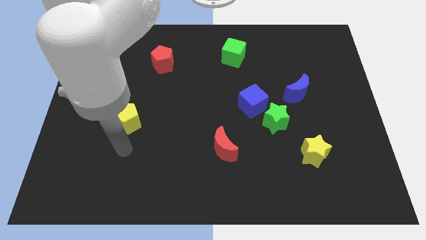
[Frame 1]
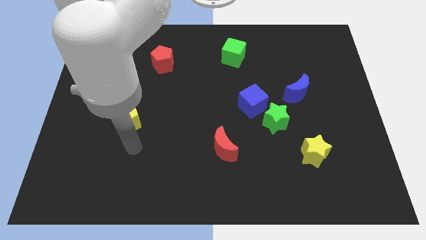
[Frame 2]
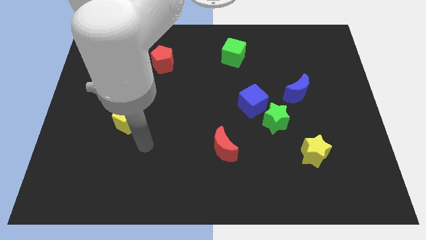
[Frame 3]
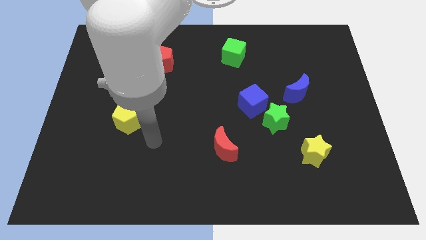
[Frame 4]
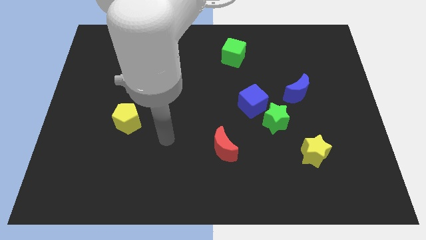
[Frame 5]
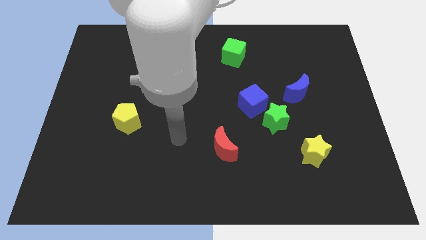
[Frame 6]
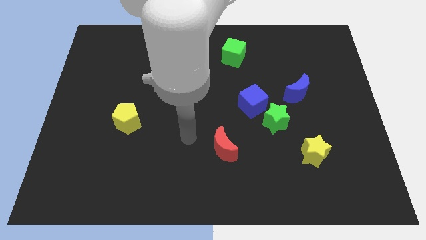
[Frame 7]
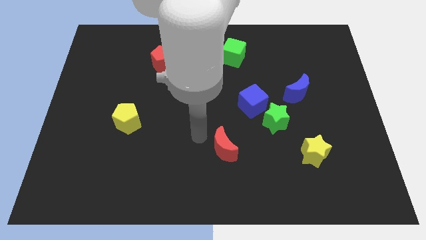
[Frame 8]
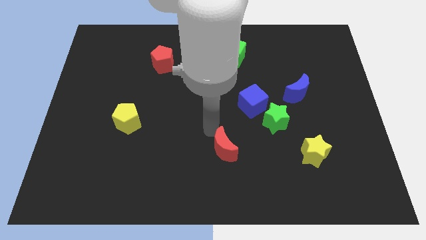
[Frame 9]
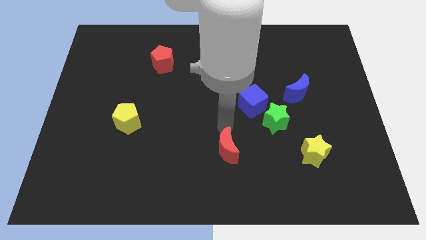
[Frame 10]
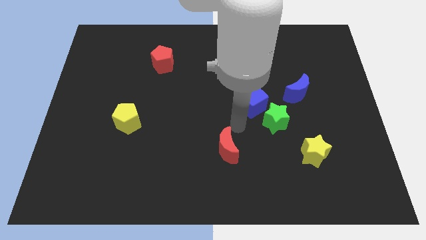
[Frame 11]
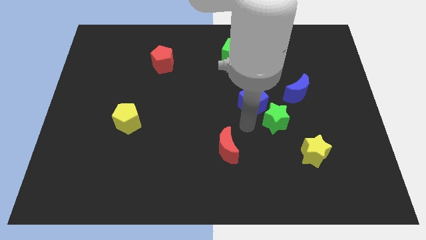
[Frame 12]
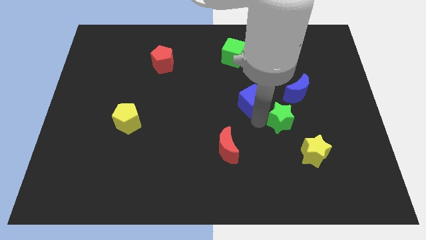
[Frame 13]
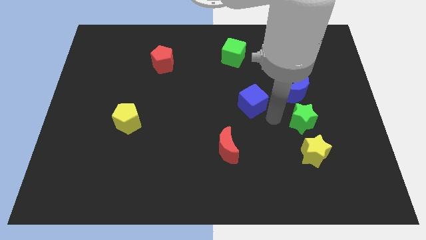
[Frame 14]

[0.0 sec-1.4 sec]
separate the blue cube from the green star

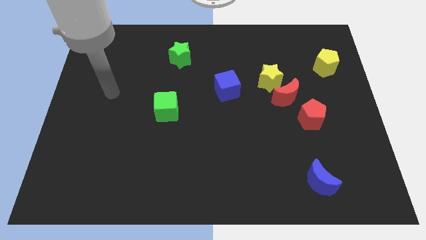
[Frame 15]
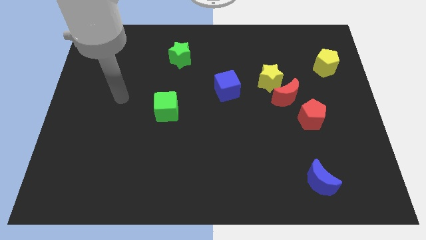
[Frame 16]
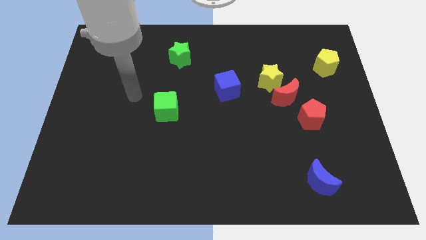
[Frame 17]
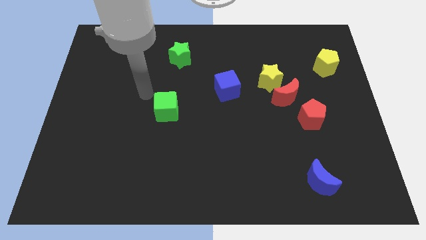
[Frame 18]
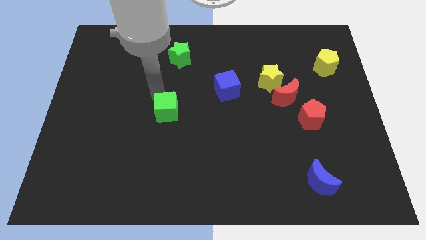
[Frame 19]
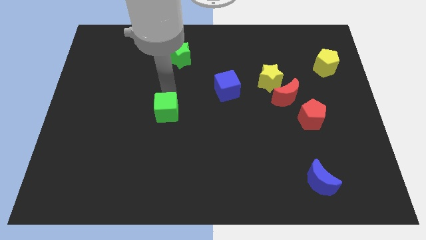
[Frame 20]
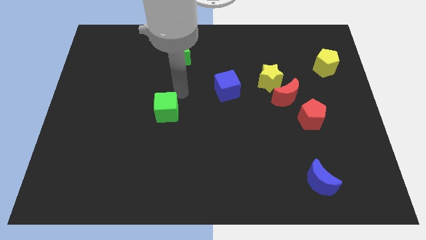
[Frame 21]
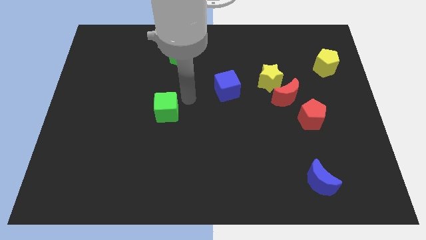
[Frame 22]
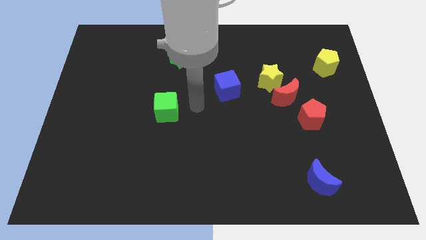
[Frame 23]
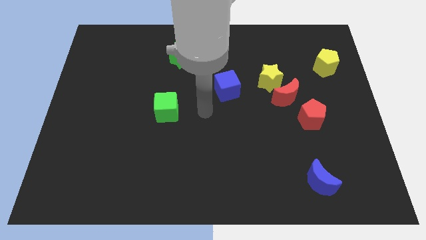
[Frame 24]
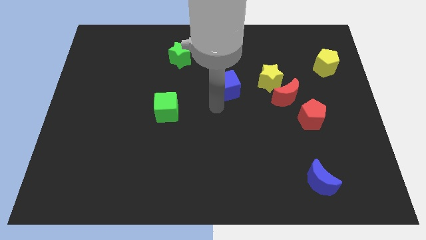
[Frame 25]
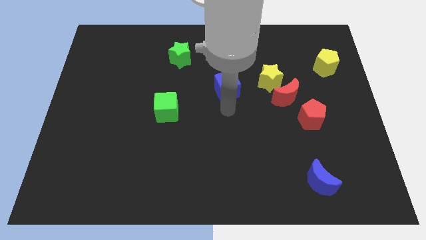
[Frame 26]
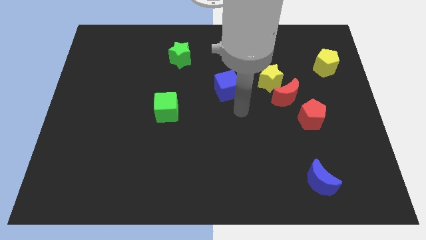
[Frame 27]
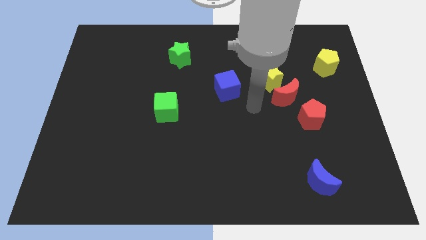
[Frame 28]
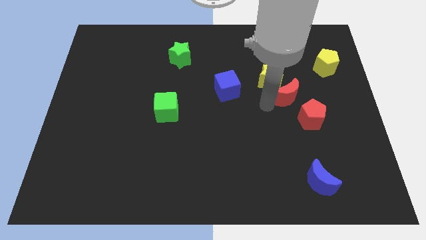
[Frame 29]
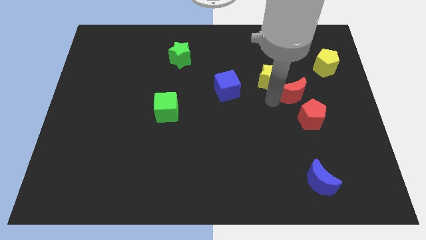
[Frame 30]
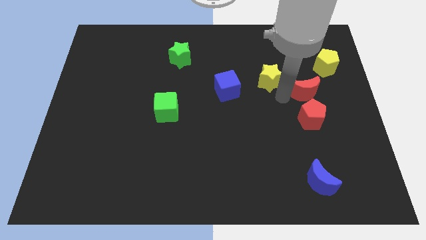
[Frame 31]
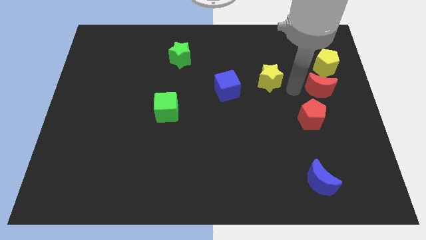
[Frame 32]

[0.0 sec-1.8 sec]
move the yellow star away from the red moon

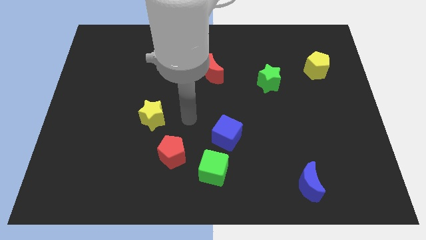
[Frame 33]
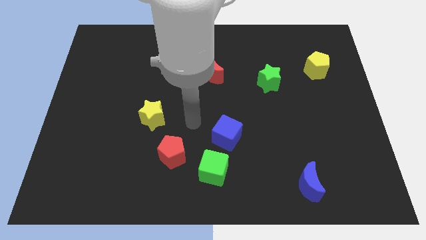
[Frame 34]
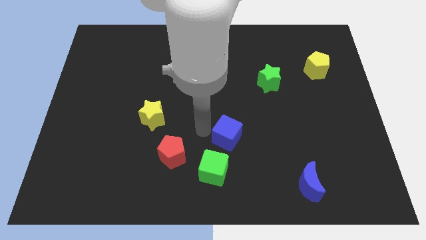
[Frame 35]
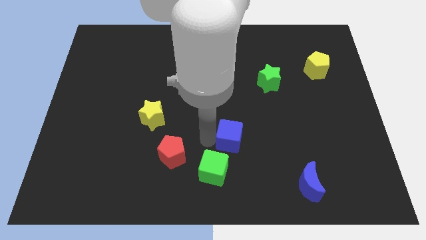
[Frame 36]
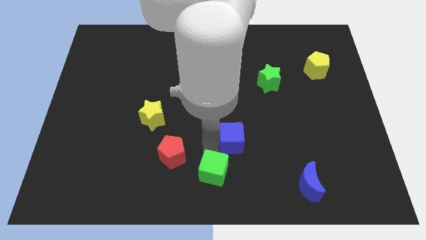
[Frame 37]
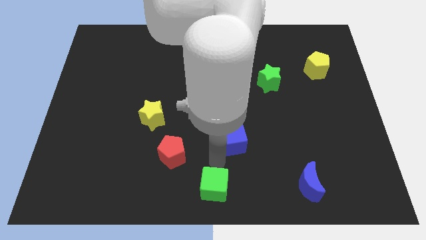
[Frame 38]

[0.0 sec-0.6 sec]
pull the blue cube apart from the green cube

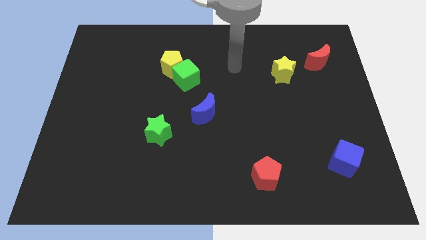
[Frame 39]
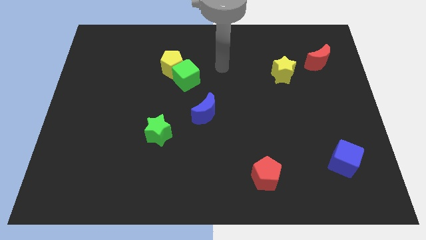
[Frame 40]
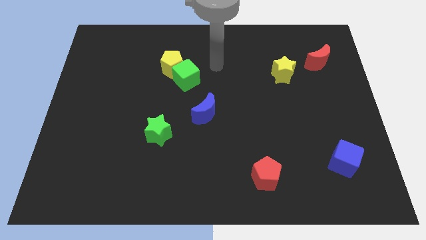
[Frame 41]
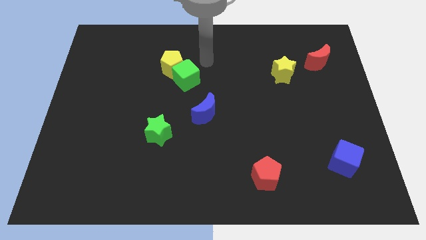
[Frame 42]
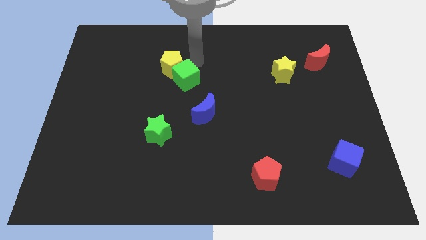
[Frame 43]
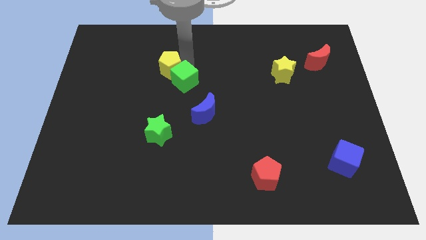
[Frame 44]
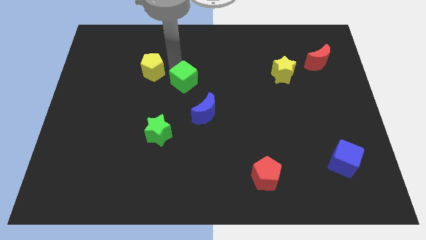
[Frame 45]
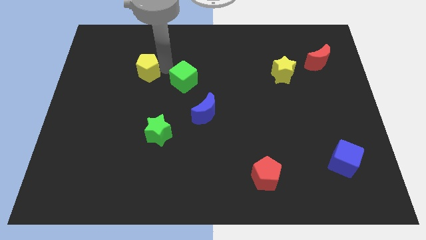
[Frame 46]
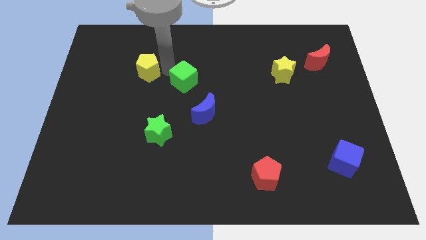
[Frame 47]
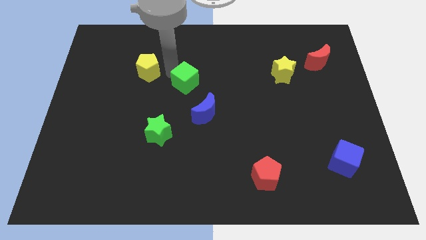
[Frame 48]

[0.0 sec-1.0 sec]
separate the green cube from the yellow pentagon

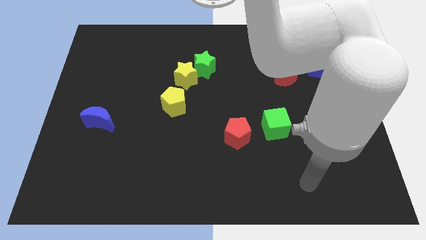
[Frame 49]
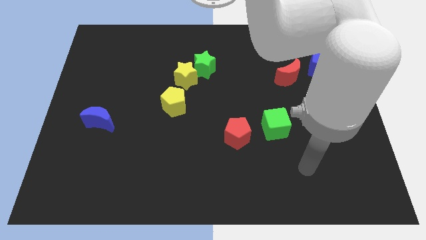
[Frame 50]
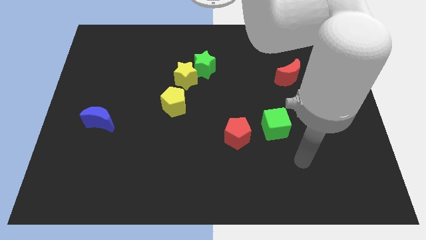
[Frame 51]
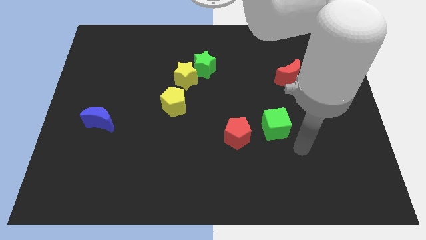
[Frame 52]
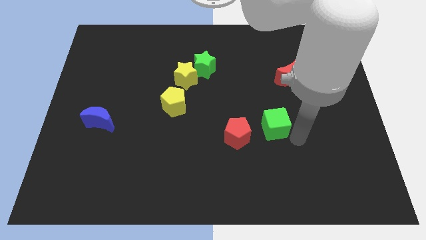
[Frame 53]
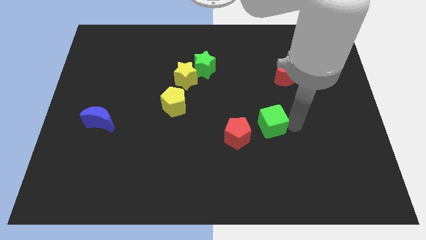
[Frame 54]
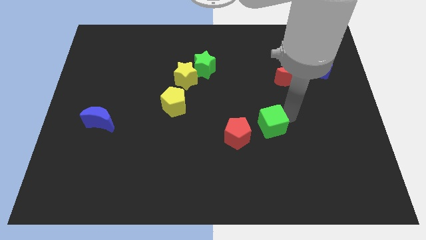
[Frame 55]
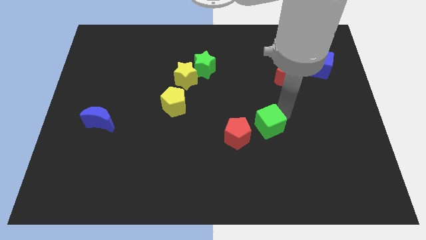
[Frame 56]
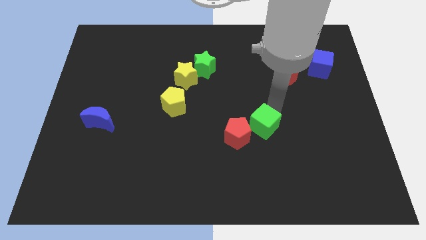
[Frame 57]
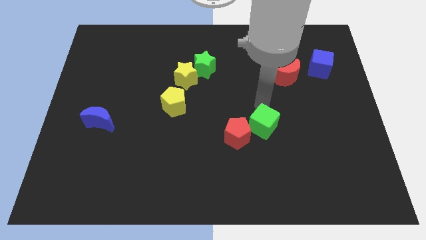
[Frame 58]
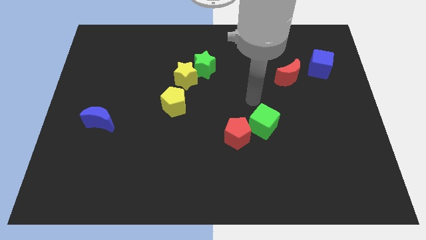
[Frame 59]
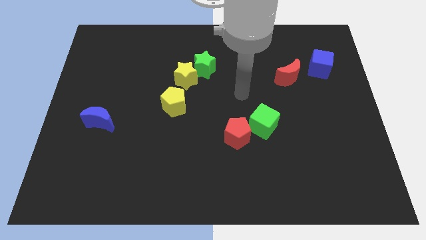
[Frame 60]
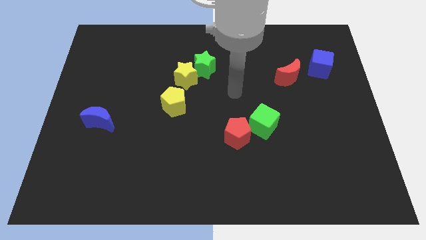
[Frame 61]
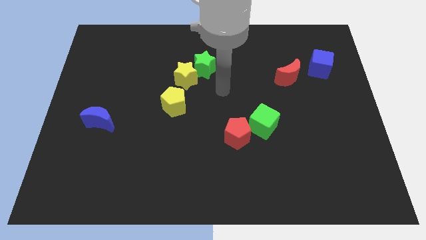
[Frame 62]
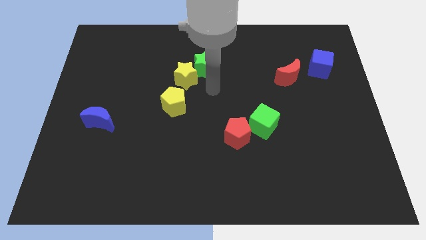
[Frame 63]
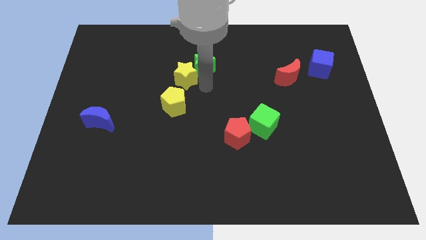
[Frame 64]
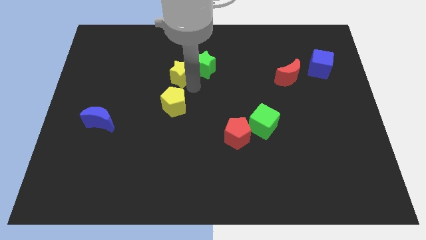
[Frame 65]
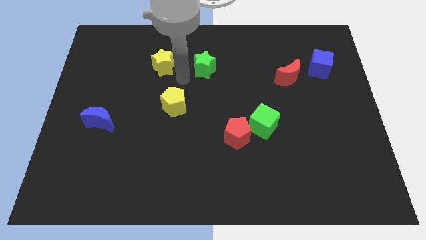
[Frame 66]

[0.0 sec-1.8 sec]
pull the green star apart from the yellow star

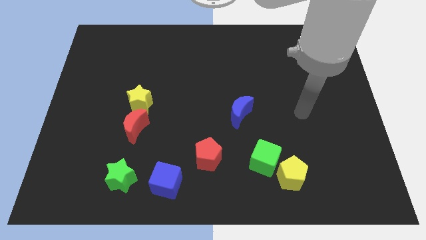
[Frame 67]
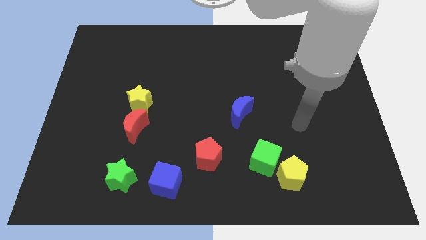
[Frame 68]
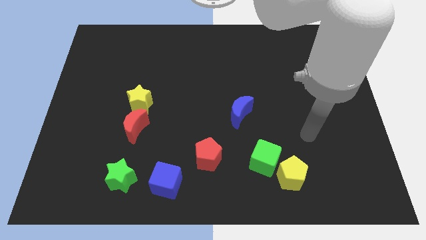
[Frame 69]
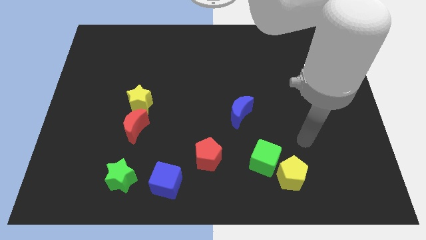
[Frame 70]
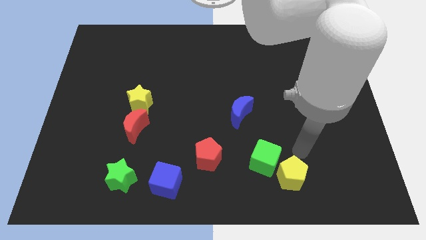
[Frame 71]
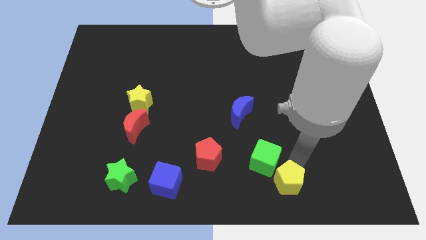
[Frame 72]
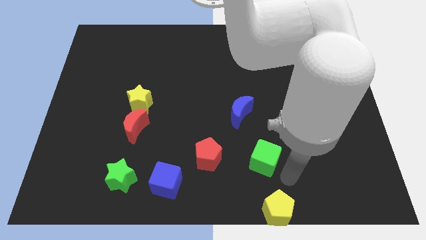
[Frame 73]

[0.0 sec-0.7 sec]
move the green cube away from the yellow pentagon

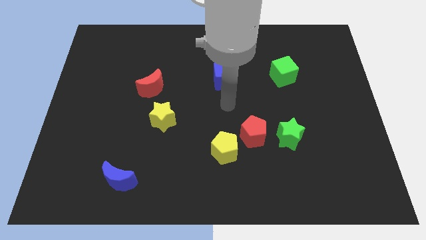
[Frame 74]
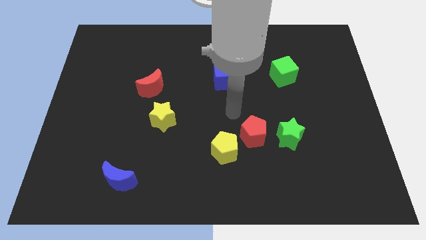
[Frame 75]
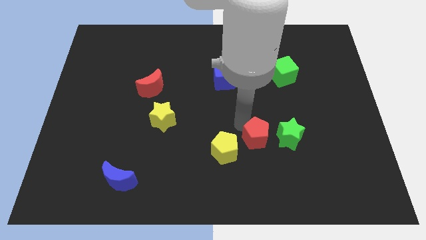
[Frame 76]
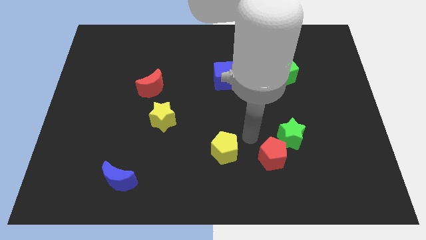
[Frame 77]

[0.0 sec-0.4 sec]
move the yellow pentagon away from the red pentagon

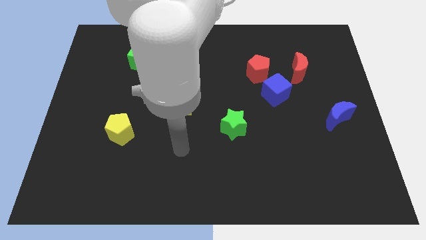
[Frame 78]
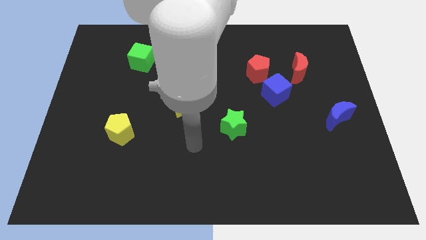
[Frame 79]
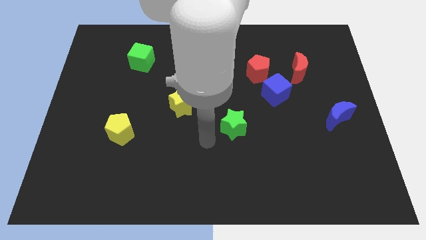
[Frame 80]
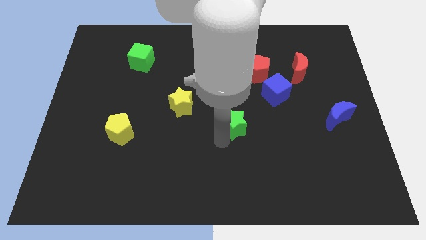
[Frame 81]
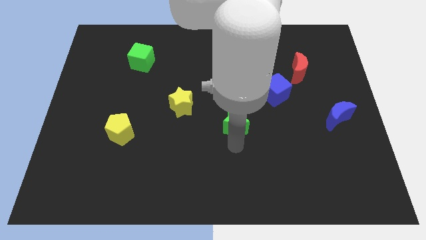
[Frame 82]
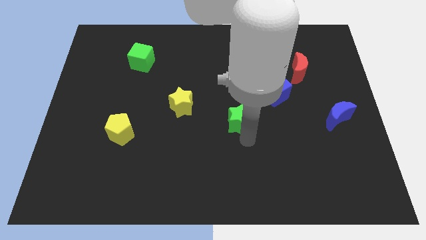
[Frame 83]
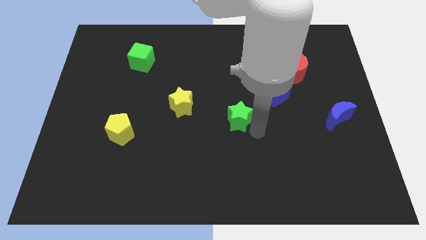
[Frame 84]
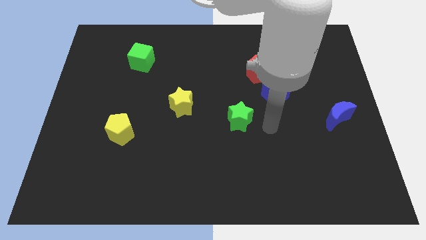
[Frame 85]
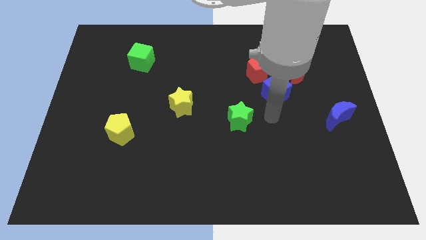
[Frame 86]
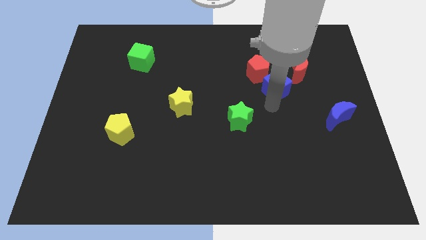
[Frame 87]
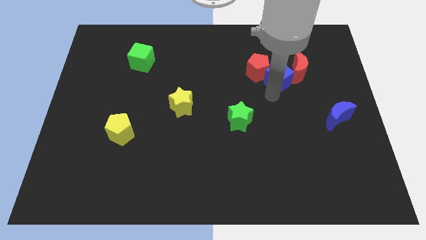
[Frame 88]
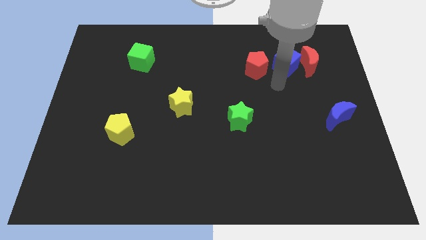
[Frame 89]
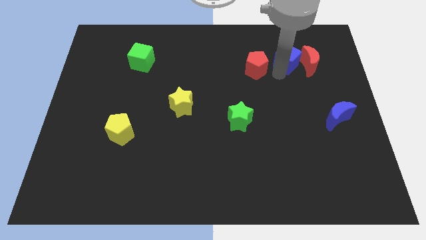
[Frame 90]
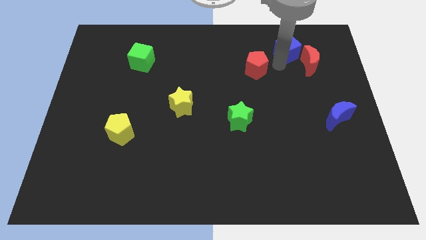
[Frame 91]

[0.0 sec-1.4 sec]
pull the red pentagon apart from the blue cube

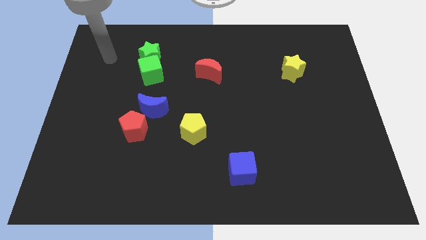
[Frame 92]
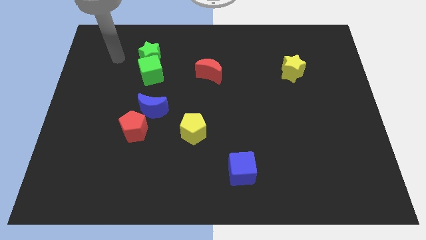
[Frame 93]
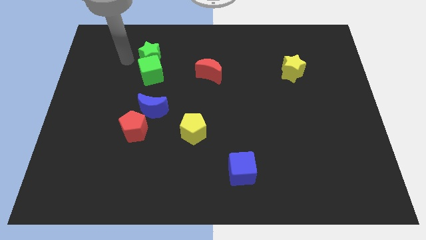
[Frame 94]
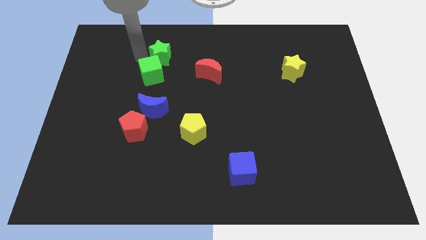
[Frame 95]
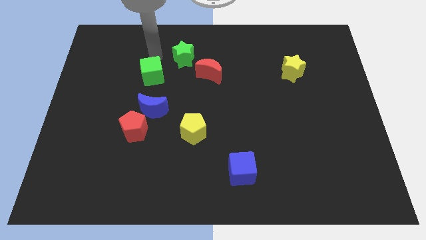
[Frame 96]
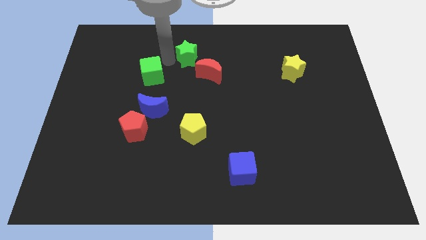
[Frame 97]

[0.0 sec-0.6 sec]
separate the green cube from the green star
